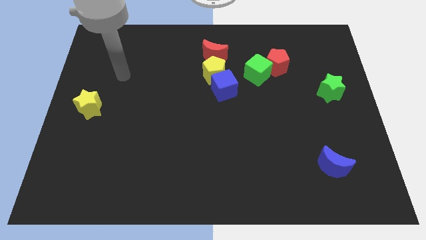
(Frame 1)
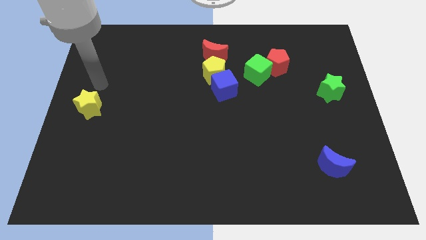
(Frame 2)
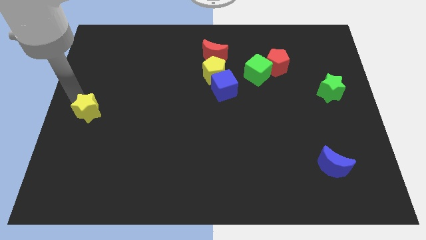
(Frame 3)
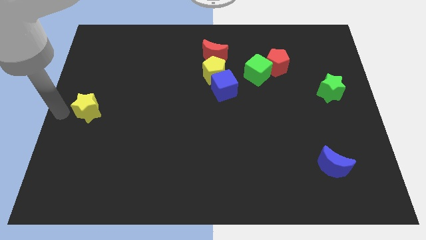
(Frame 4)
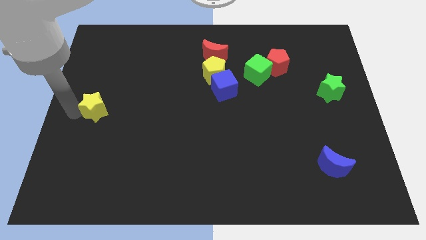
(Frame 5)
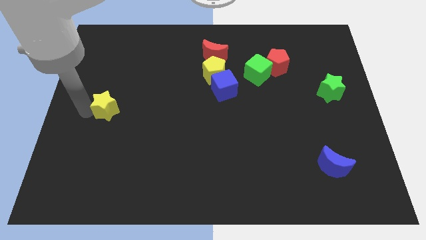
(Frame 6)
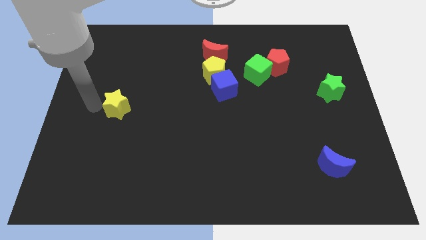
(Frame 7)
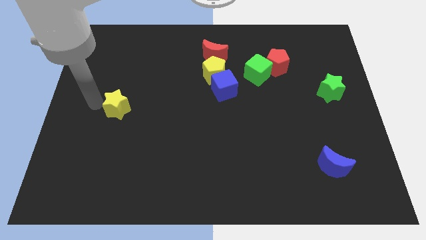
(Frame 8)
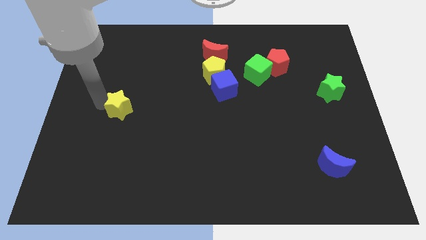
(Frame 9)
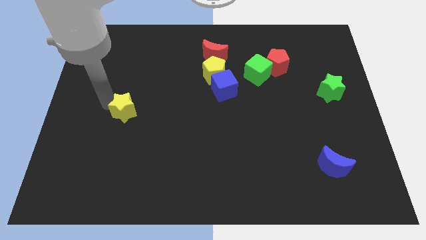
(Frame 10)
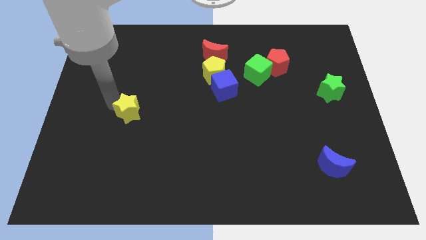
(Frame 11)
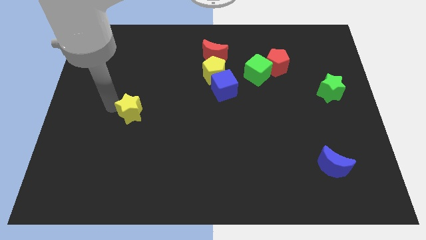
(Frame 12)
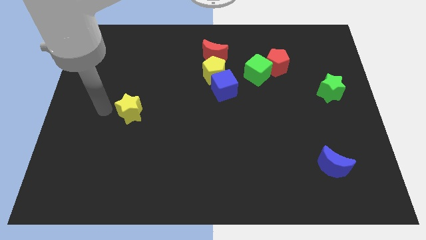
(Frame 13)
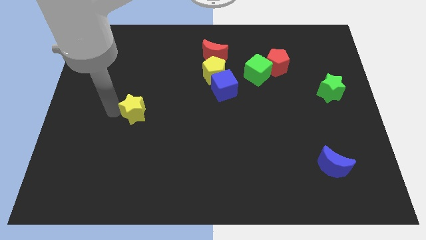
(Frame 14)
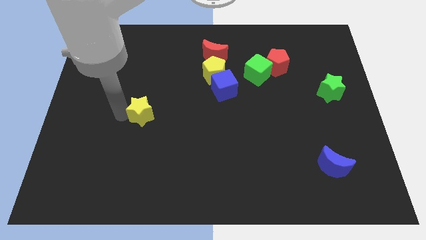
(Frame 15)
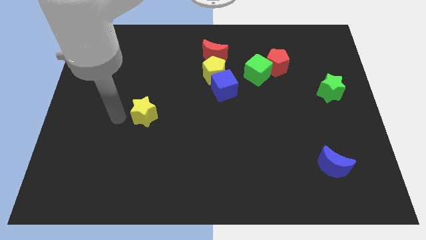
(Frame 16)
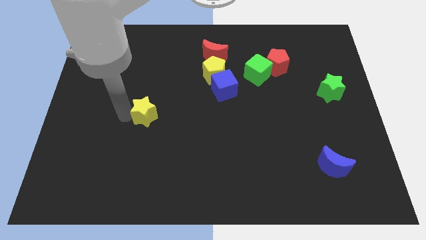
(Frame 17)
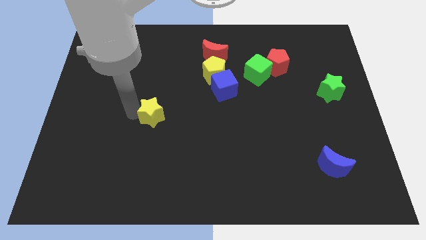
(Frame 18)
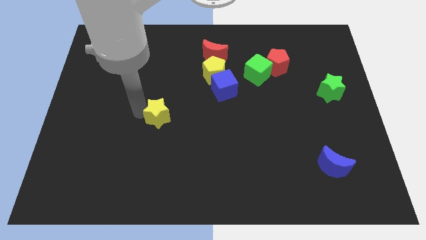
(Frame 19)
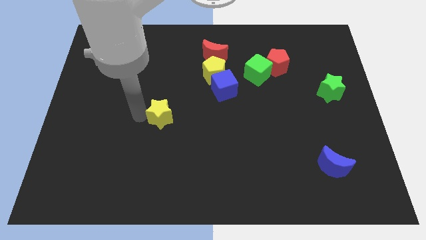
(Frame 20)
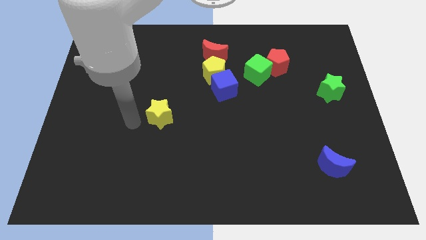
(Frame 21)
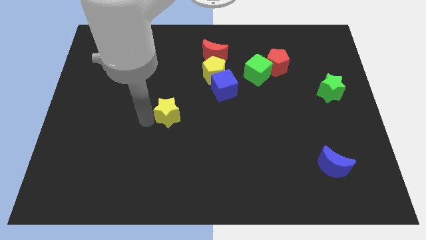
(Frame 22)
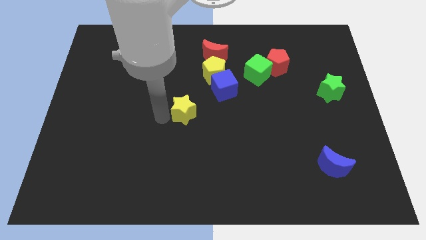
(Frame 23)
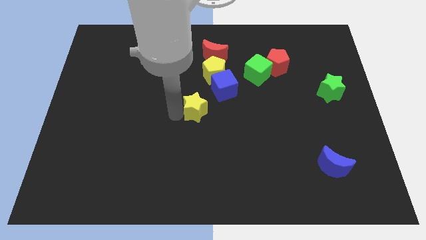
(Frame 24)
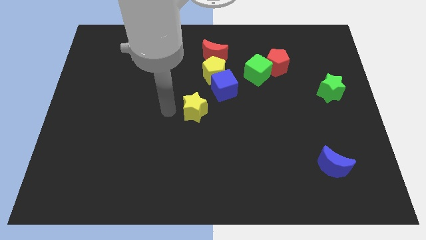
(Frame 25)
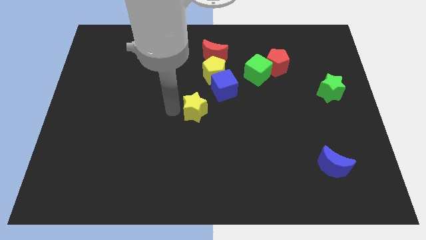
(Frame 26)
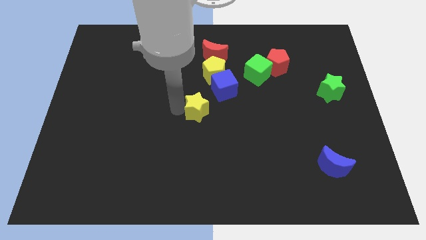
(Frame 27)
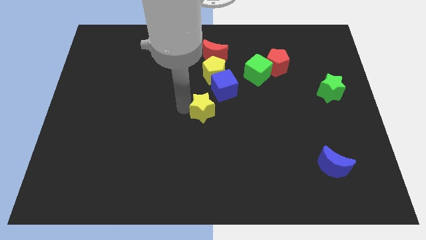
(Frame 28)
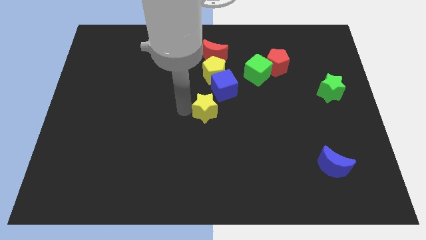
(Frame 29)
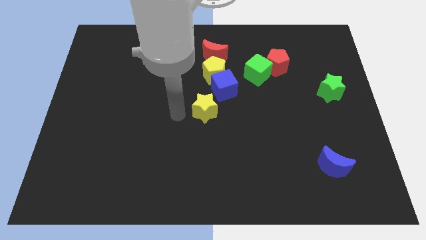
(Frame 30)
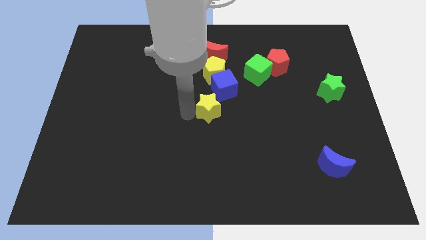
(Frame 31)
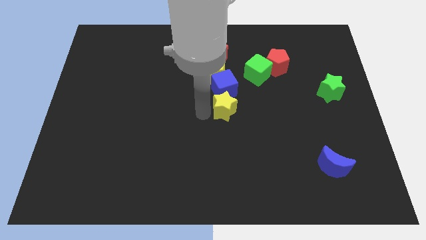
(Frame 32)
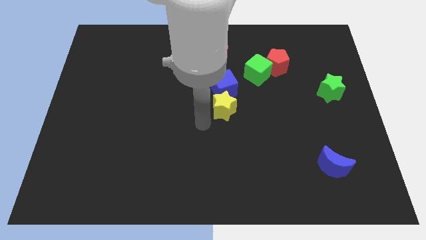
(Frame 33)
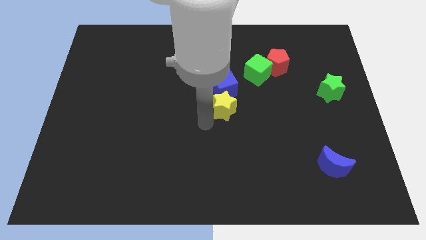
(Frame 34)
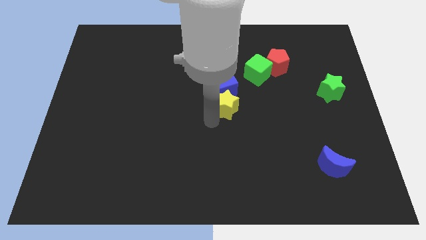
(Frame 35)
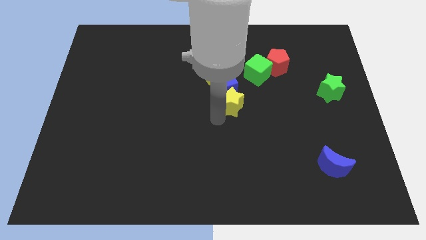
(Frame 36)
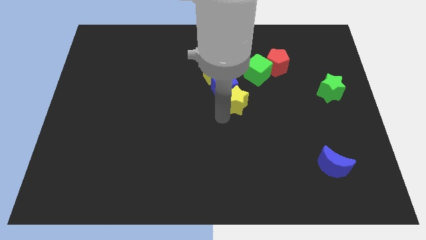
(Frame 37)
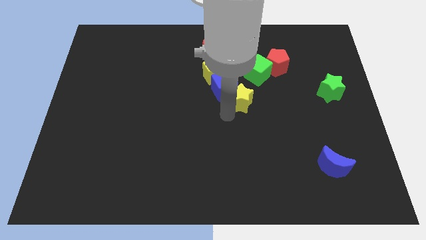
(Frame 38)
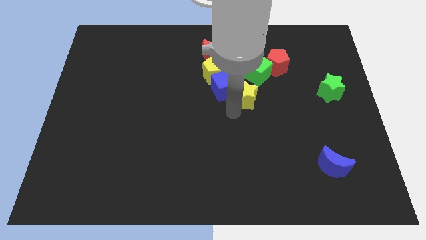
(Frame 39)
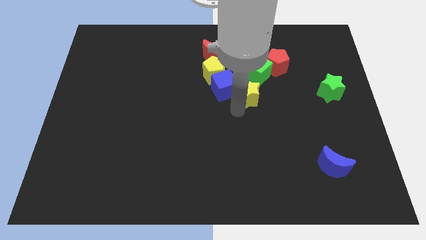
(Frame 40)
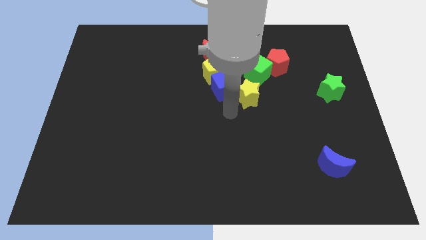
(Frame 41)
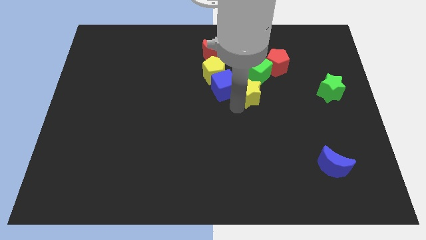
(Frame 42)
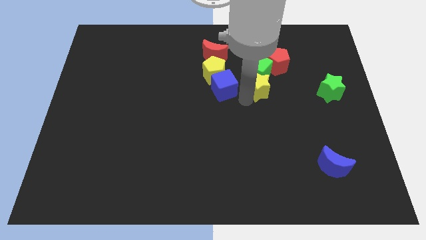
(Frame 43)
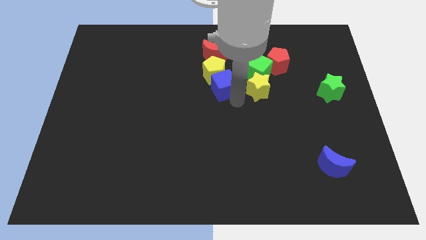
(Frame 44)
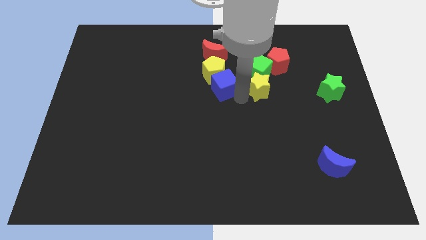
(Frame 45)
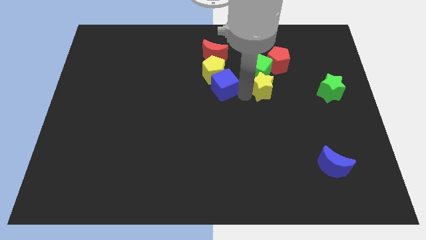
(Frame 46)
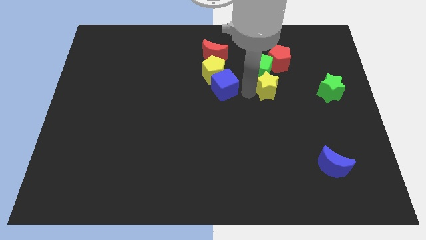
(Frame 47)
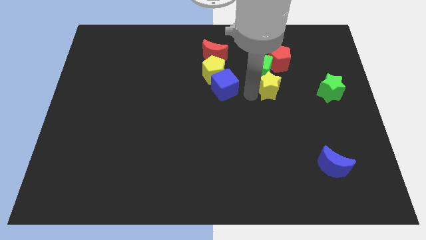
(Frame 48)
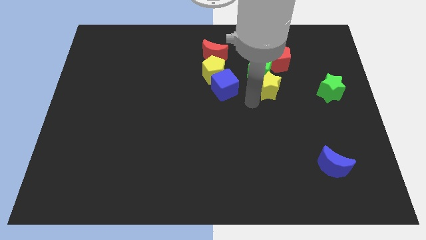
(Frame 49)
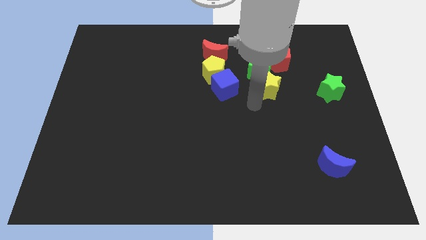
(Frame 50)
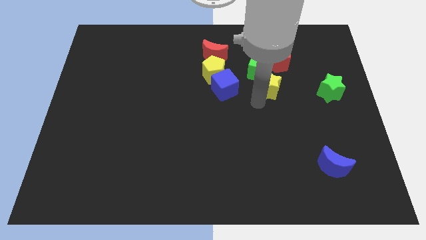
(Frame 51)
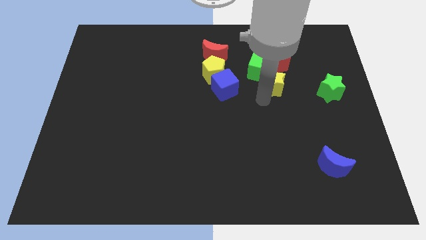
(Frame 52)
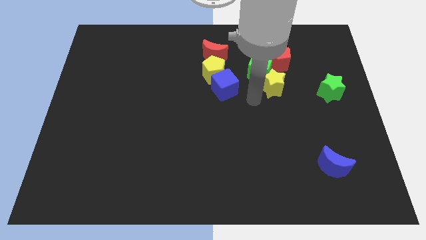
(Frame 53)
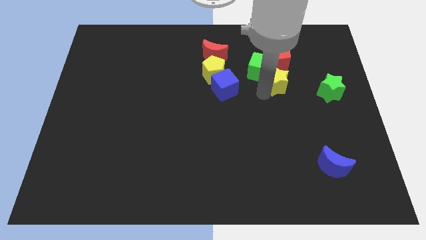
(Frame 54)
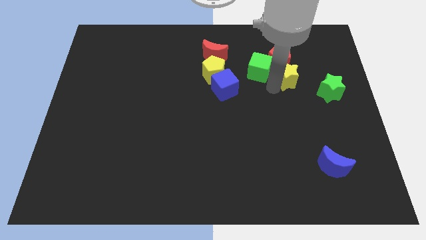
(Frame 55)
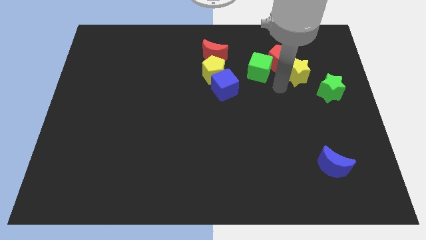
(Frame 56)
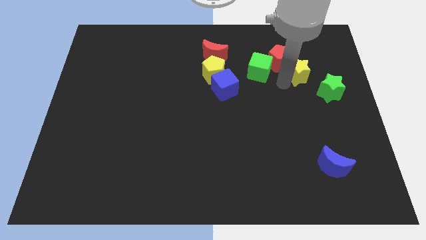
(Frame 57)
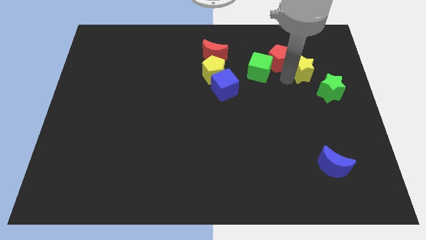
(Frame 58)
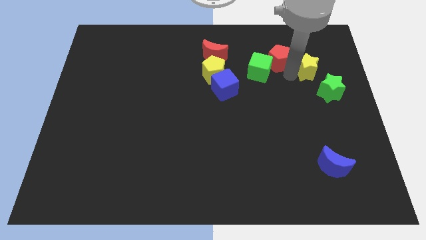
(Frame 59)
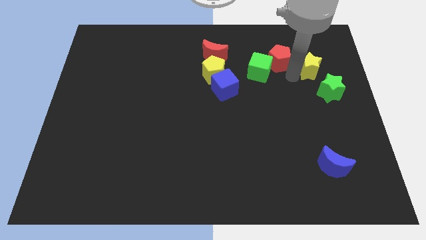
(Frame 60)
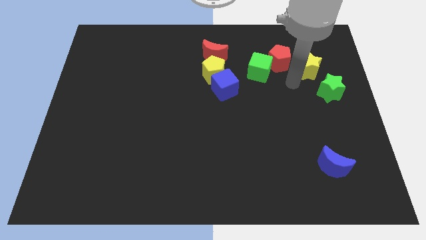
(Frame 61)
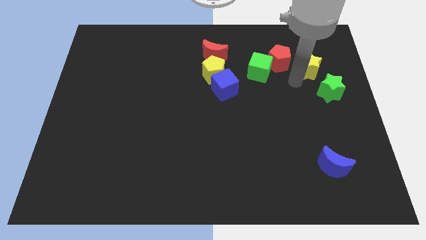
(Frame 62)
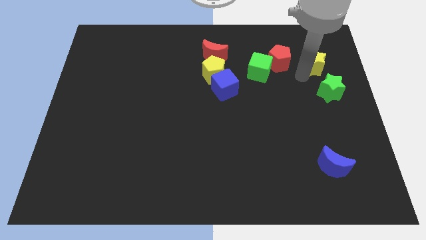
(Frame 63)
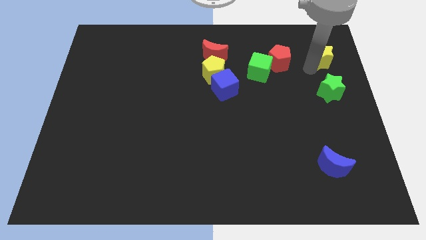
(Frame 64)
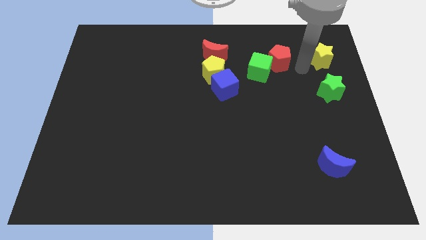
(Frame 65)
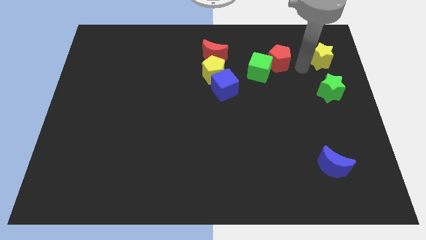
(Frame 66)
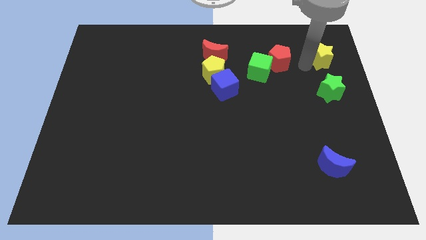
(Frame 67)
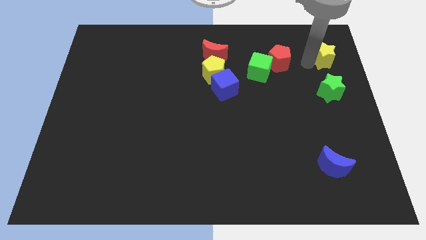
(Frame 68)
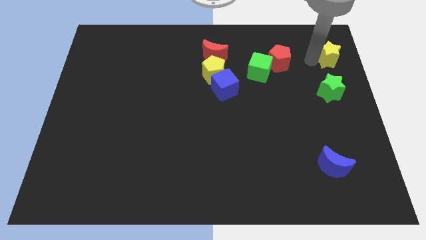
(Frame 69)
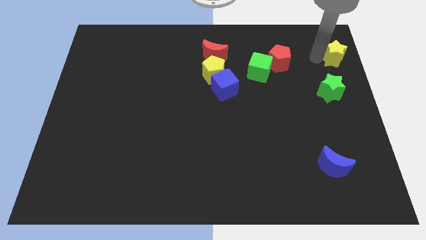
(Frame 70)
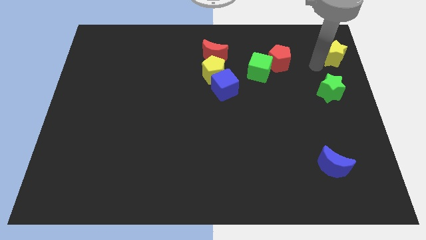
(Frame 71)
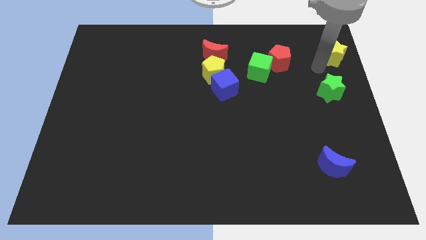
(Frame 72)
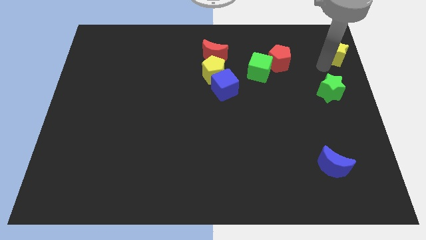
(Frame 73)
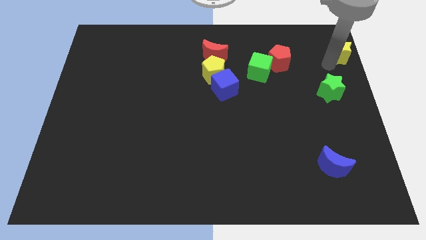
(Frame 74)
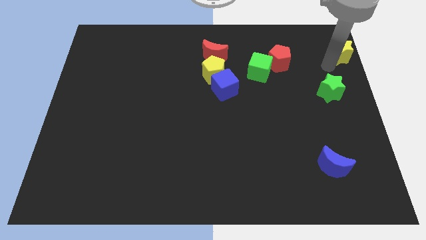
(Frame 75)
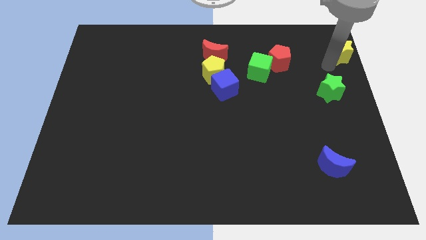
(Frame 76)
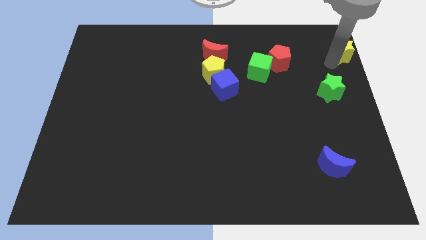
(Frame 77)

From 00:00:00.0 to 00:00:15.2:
move the yellow star to the upper right corner

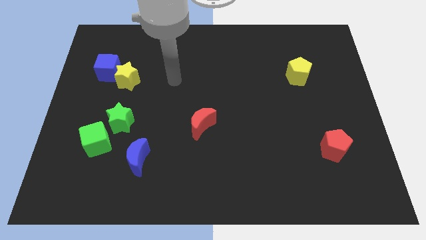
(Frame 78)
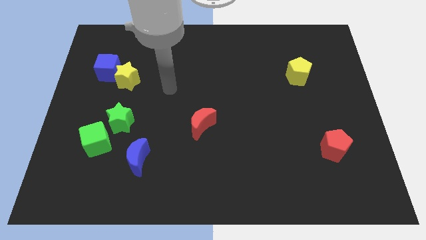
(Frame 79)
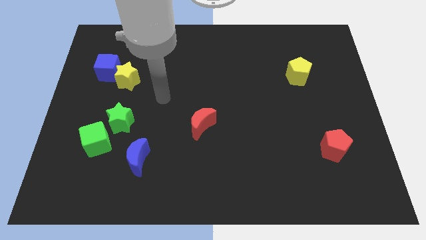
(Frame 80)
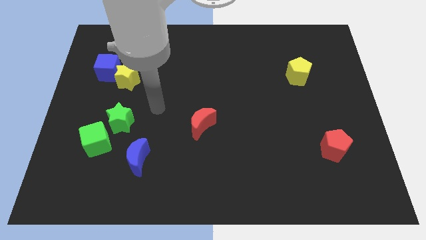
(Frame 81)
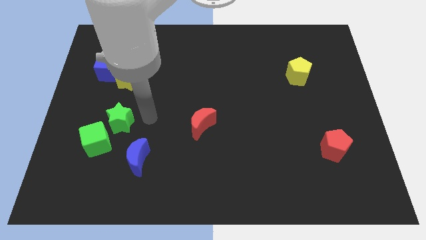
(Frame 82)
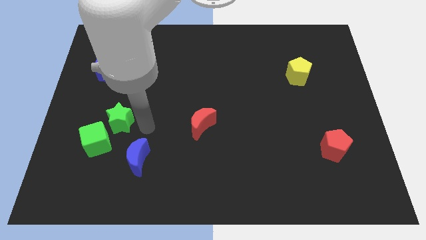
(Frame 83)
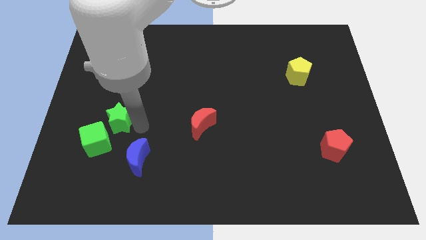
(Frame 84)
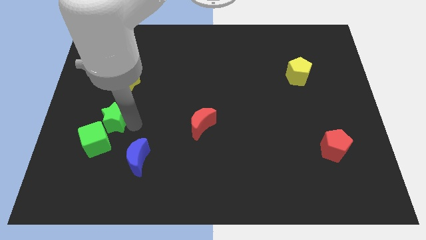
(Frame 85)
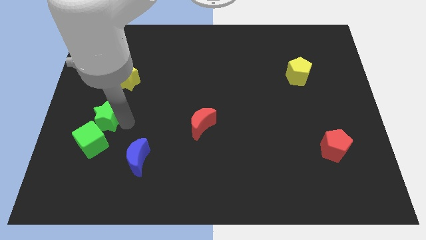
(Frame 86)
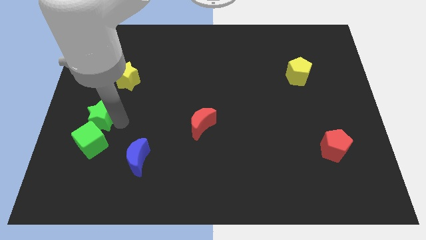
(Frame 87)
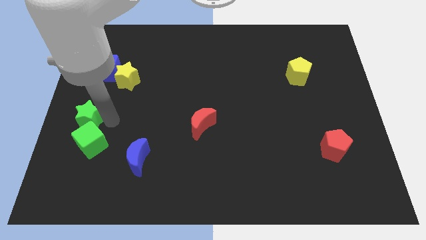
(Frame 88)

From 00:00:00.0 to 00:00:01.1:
put the green star to the center left
